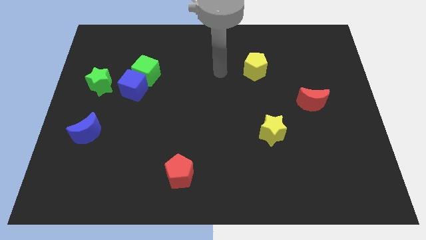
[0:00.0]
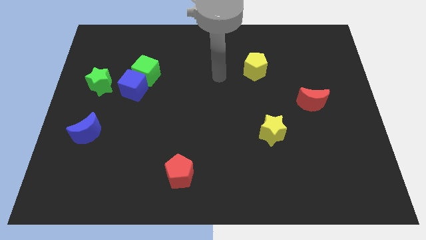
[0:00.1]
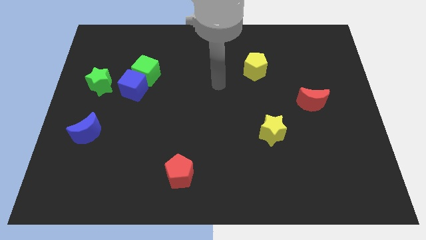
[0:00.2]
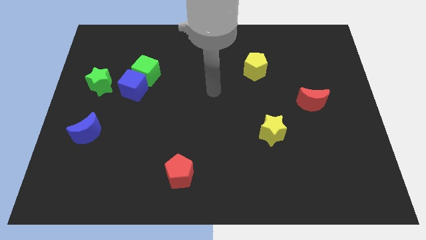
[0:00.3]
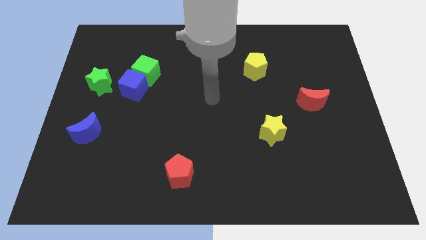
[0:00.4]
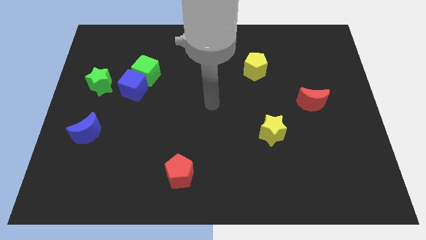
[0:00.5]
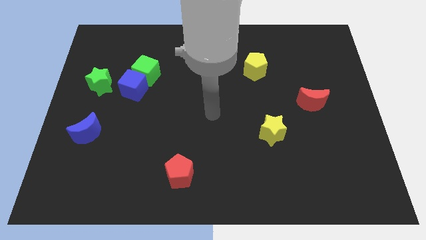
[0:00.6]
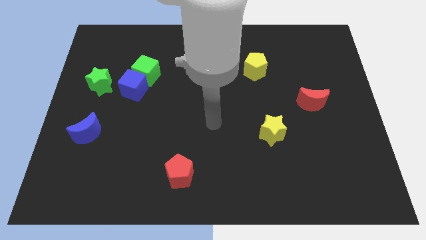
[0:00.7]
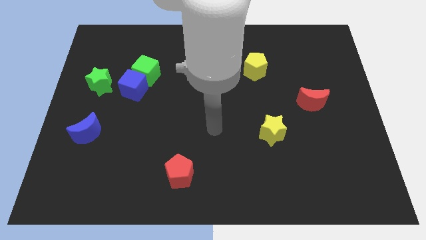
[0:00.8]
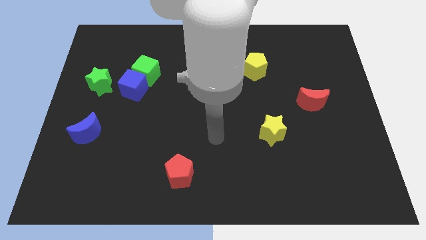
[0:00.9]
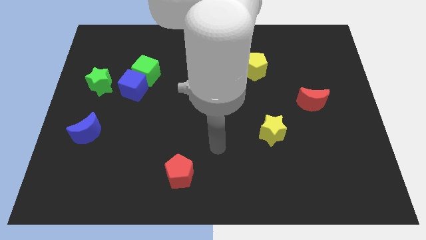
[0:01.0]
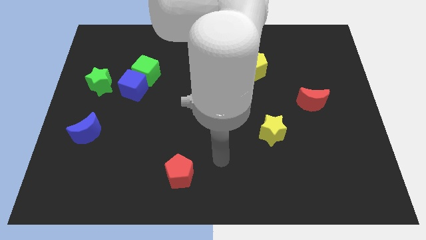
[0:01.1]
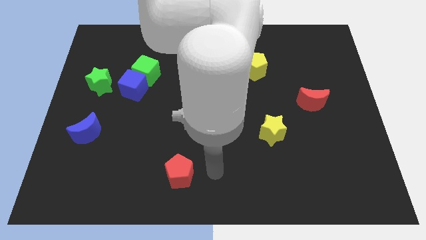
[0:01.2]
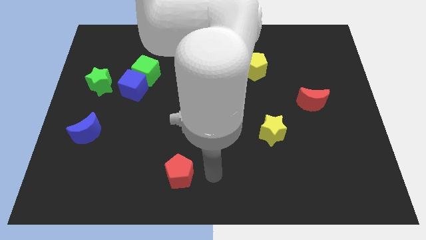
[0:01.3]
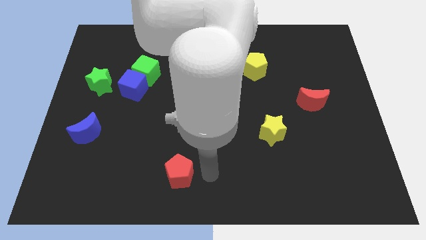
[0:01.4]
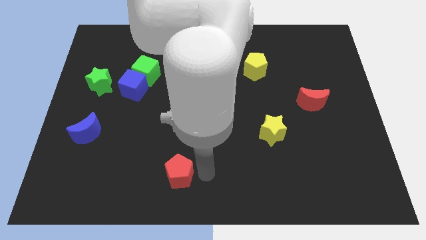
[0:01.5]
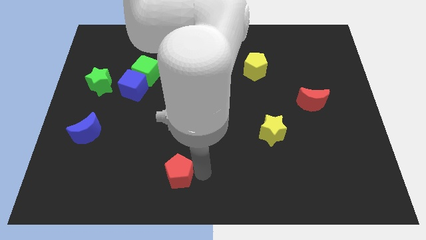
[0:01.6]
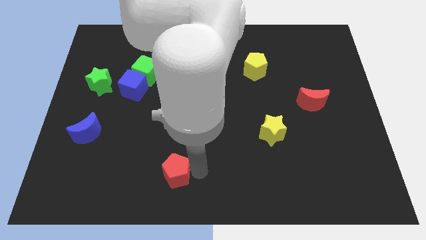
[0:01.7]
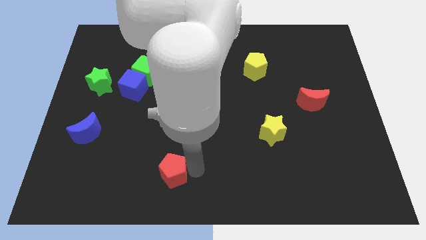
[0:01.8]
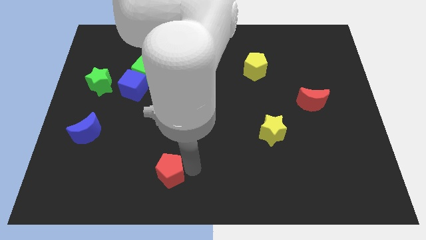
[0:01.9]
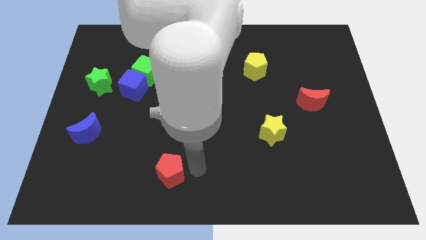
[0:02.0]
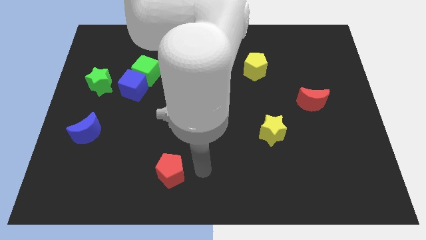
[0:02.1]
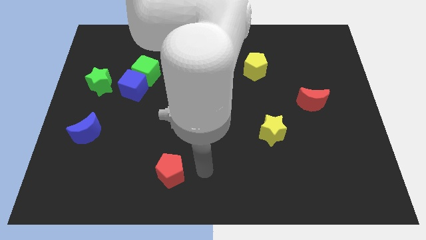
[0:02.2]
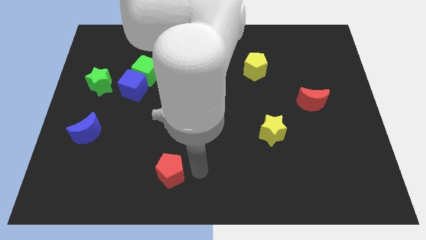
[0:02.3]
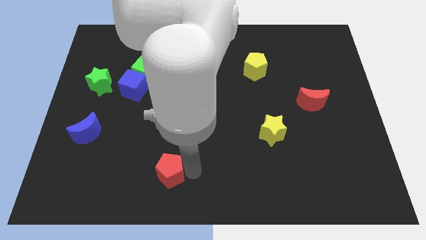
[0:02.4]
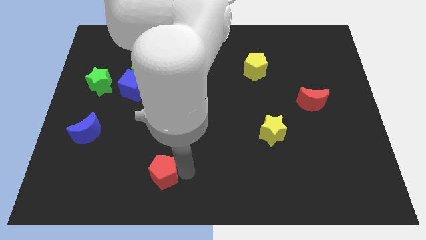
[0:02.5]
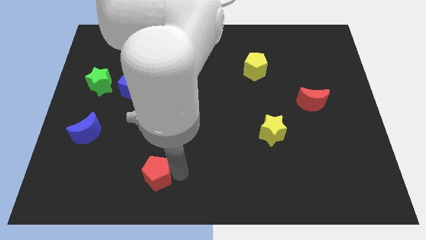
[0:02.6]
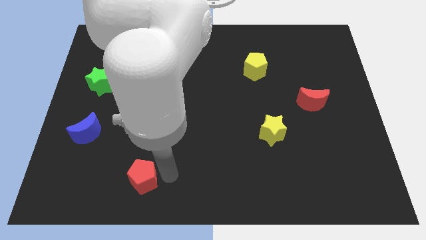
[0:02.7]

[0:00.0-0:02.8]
push the red pentagon to the left somewhat

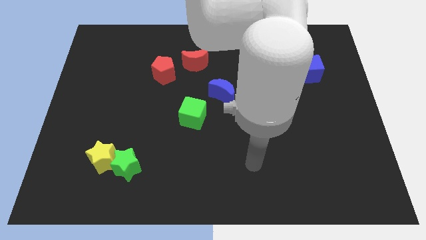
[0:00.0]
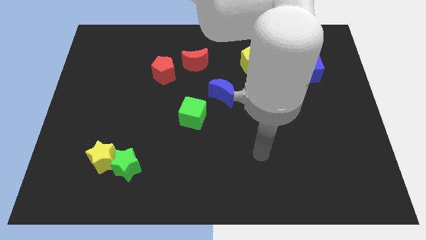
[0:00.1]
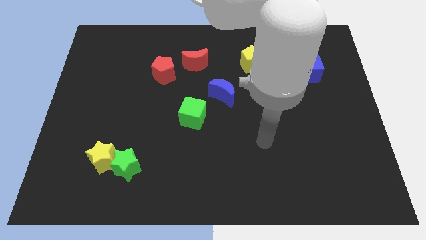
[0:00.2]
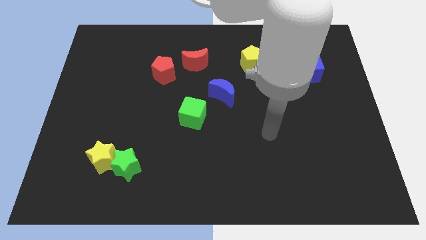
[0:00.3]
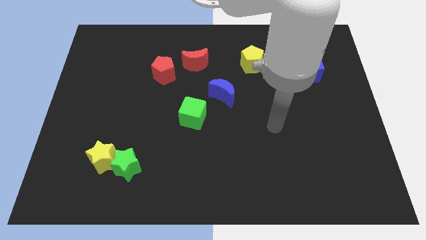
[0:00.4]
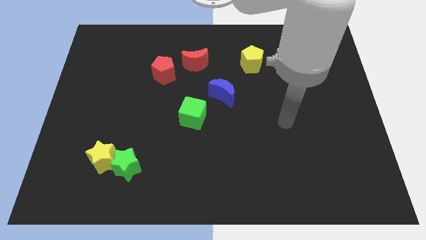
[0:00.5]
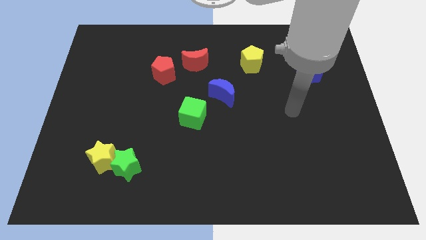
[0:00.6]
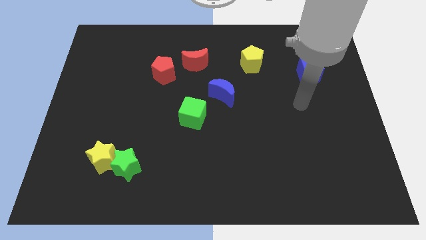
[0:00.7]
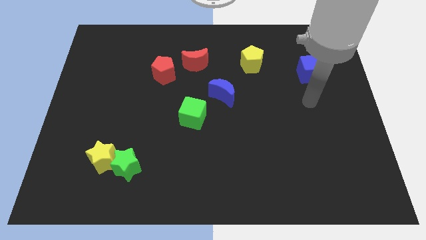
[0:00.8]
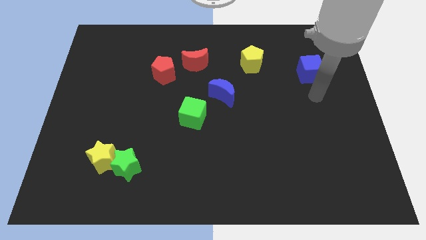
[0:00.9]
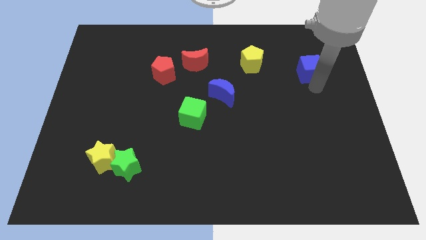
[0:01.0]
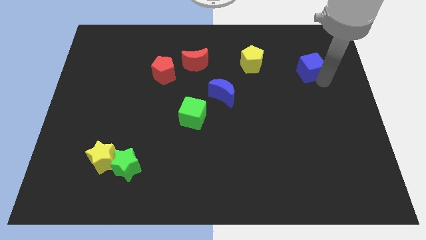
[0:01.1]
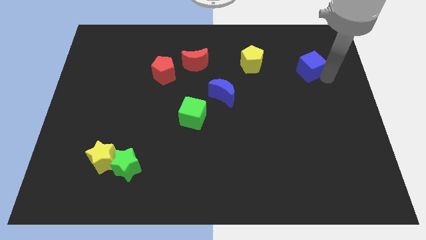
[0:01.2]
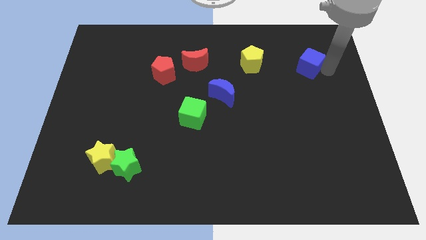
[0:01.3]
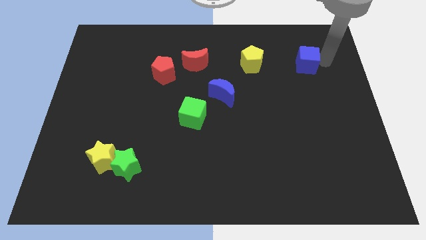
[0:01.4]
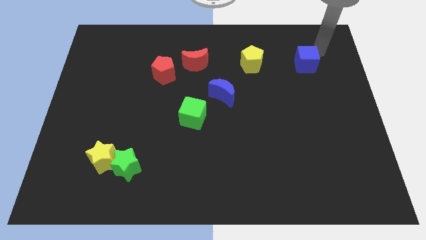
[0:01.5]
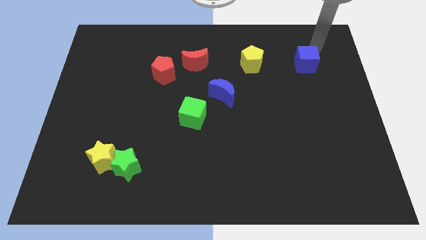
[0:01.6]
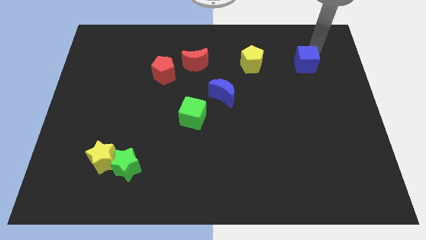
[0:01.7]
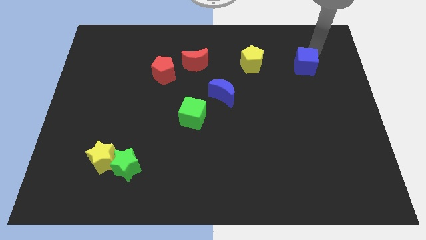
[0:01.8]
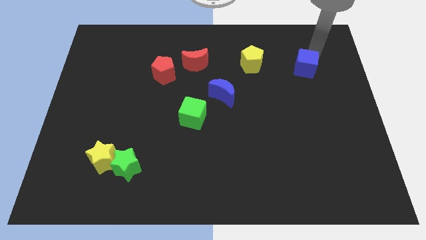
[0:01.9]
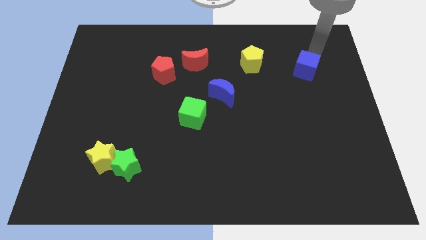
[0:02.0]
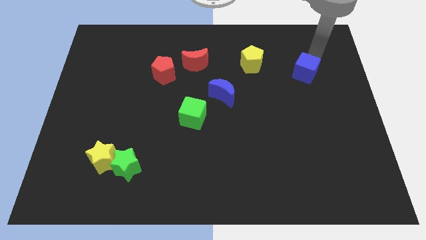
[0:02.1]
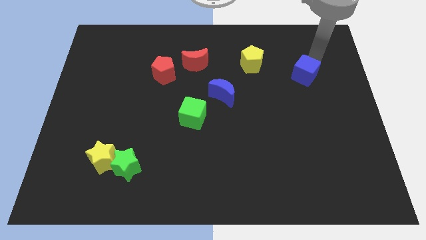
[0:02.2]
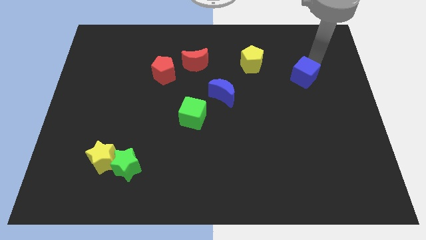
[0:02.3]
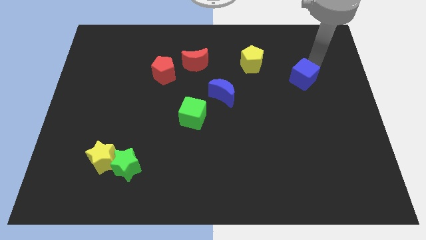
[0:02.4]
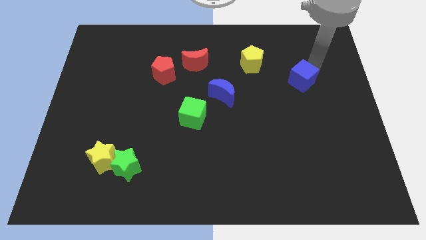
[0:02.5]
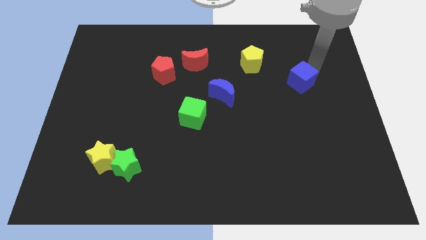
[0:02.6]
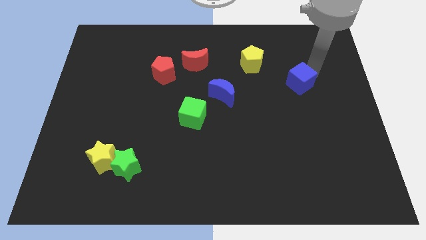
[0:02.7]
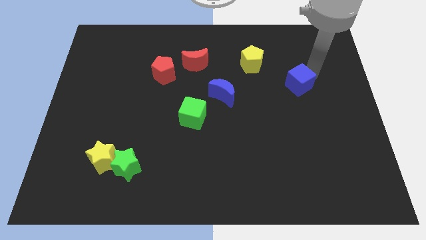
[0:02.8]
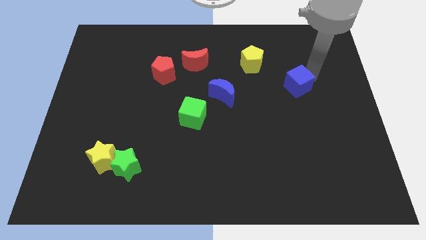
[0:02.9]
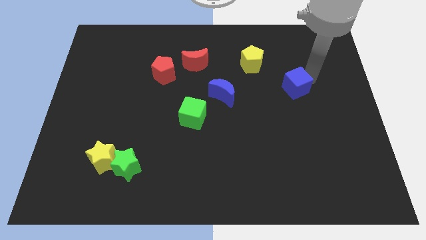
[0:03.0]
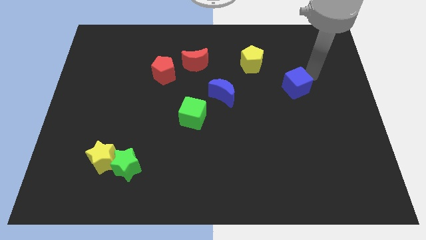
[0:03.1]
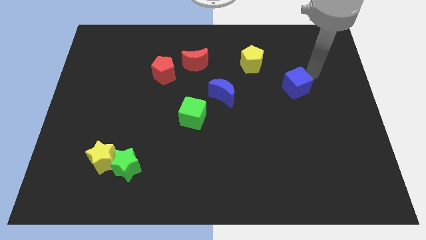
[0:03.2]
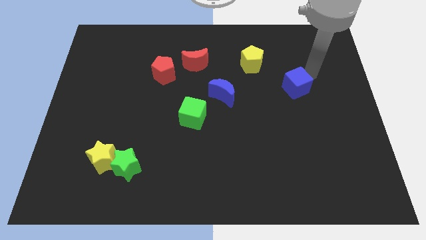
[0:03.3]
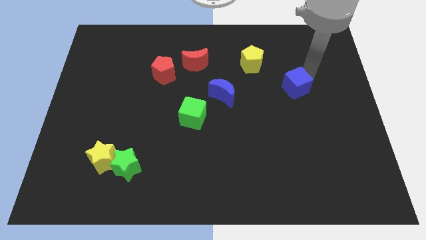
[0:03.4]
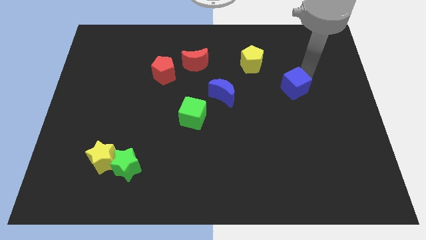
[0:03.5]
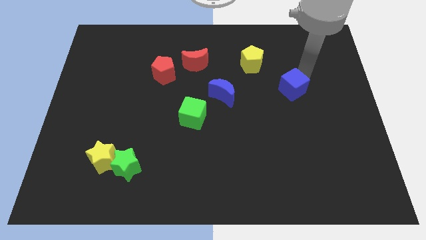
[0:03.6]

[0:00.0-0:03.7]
slightly push the blue cube downwards and to the left

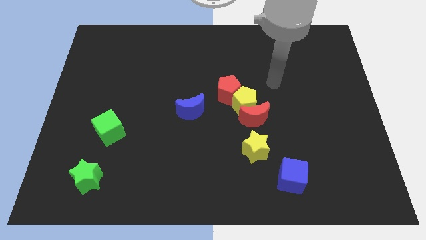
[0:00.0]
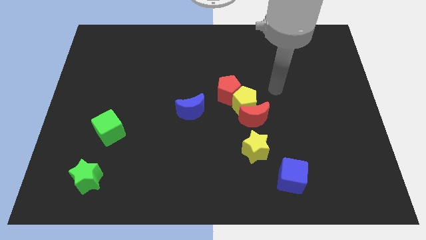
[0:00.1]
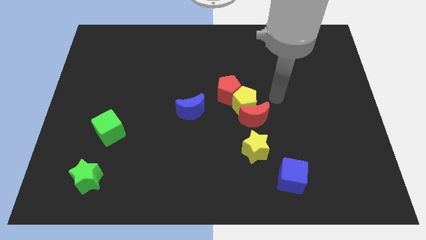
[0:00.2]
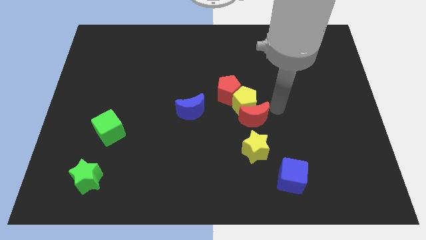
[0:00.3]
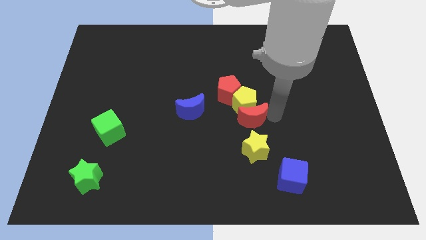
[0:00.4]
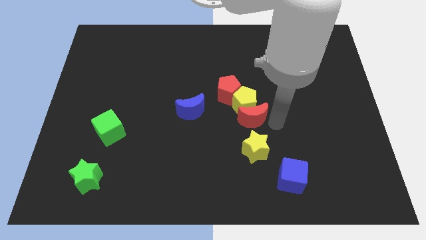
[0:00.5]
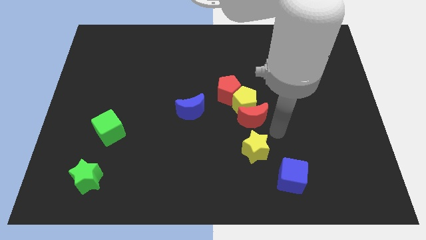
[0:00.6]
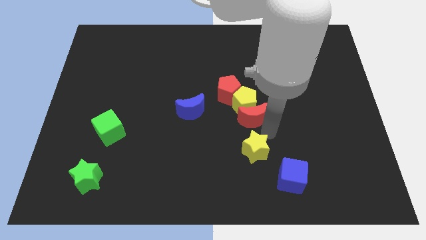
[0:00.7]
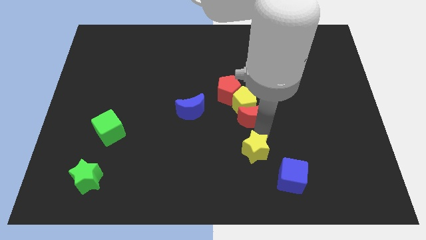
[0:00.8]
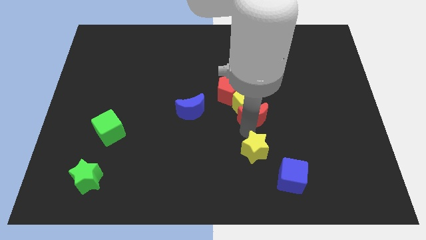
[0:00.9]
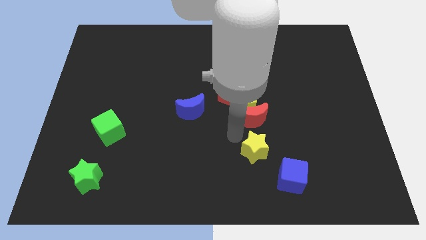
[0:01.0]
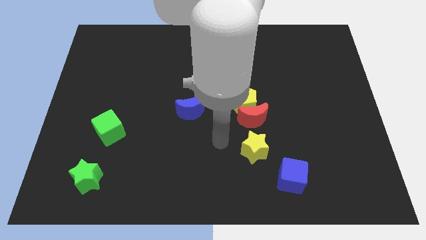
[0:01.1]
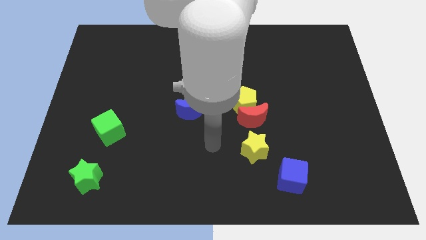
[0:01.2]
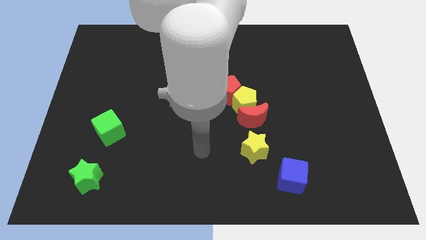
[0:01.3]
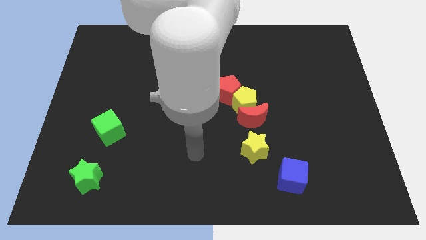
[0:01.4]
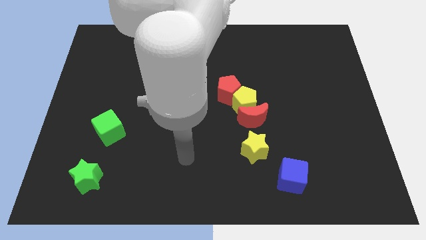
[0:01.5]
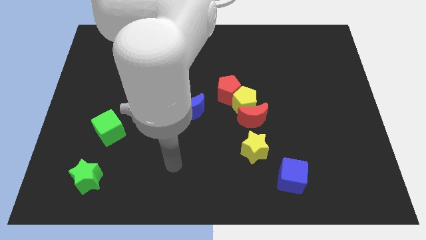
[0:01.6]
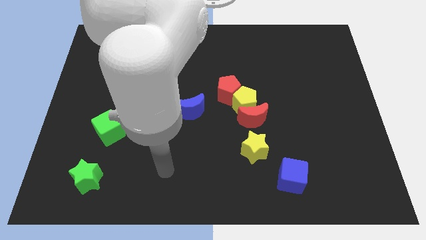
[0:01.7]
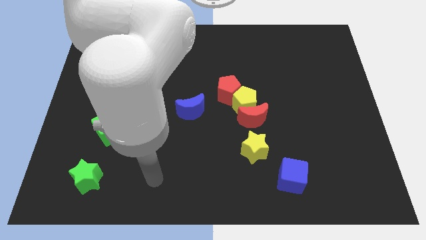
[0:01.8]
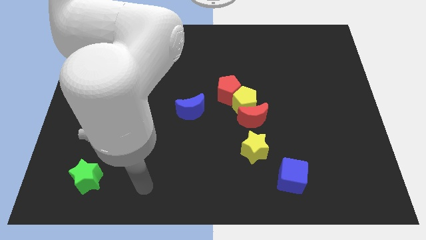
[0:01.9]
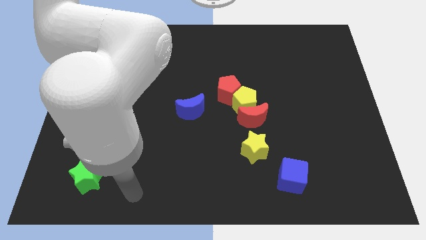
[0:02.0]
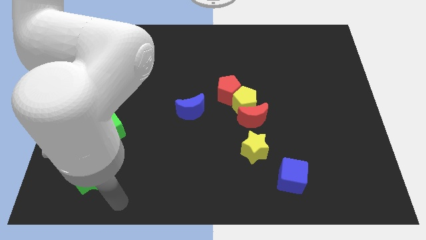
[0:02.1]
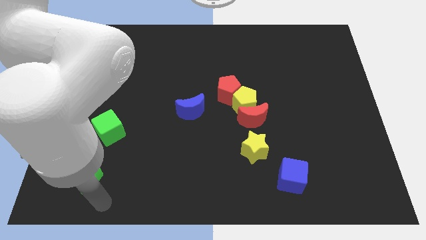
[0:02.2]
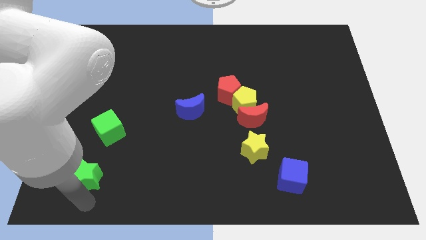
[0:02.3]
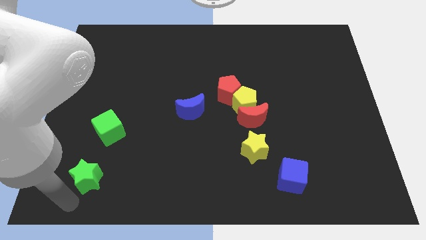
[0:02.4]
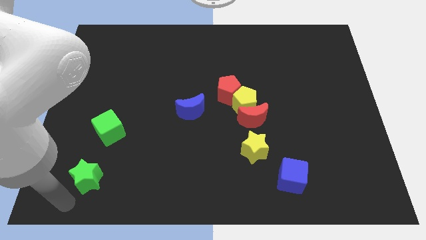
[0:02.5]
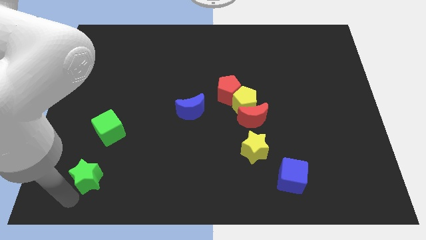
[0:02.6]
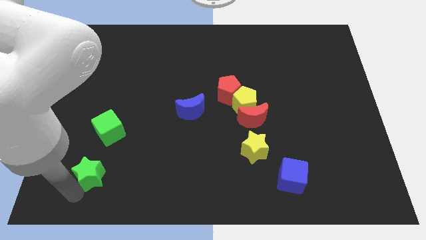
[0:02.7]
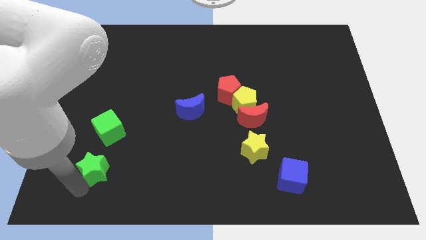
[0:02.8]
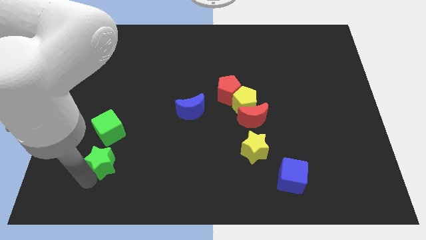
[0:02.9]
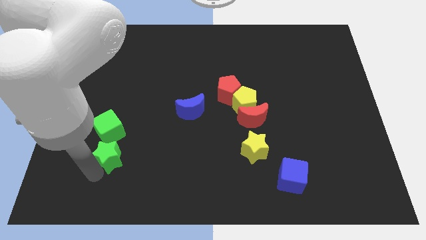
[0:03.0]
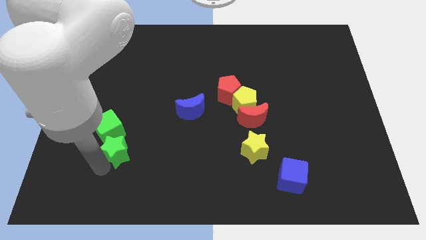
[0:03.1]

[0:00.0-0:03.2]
move the green star somewhat diagonally up and right
